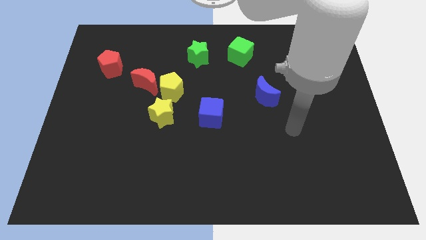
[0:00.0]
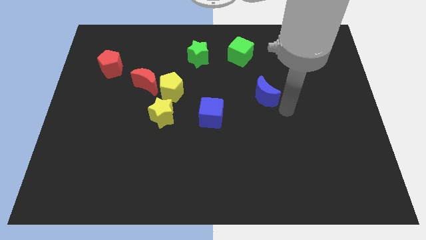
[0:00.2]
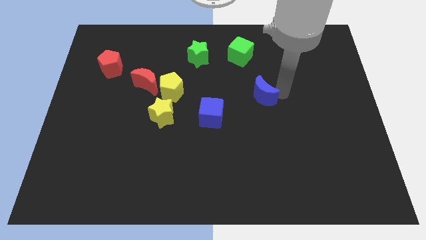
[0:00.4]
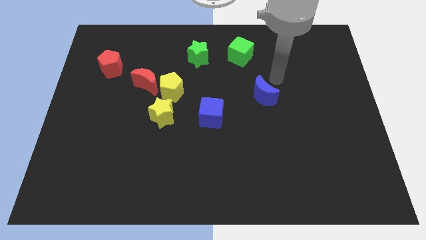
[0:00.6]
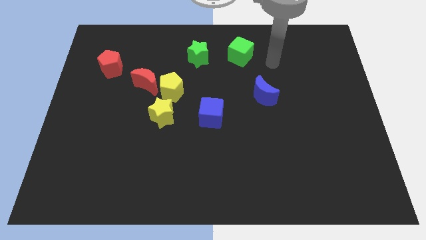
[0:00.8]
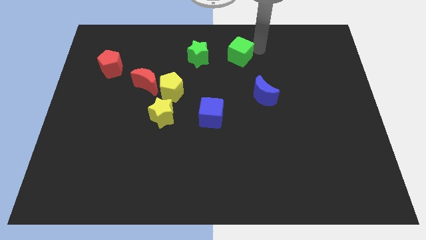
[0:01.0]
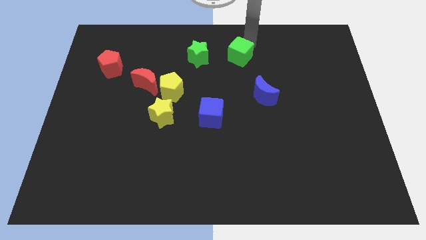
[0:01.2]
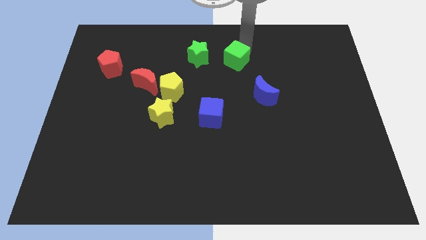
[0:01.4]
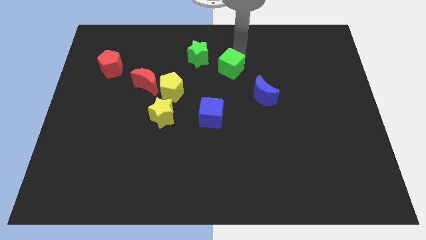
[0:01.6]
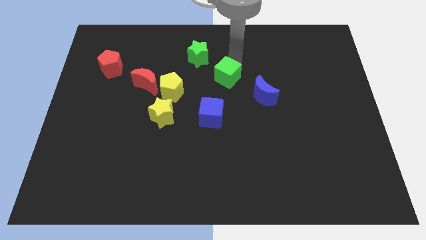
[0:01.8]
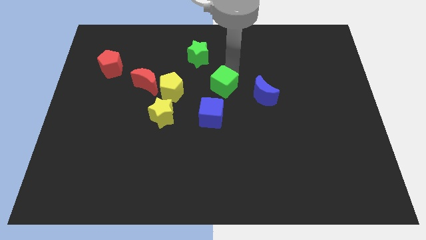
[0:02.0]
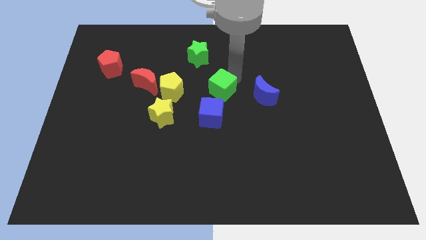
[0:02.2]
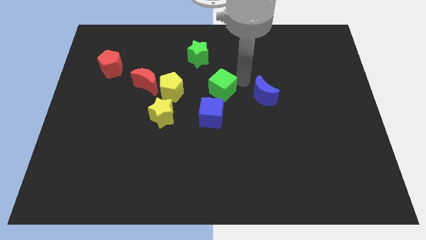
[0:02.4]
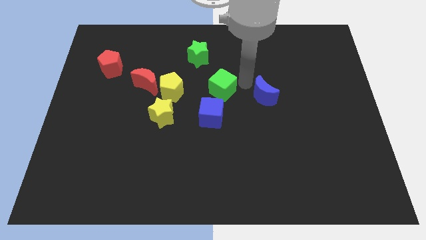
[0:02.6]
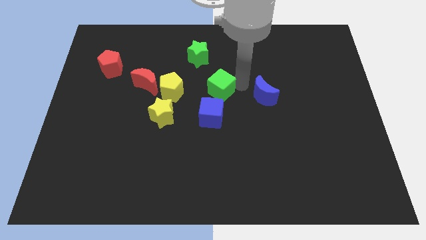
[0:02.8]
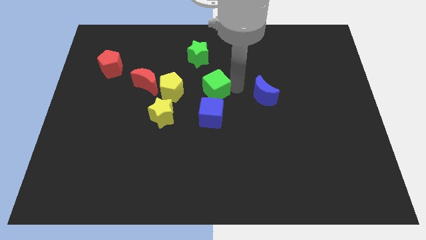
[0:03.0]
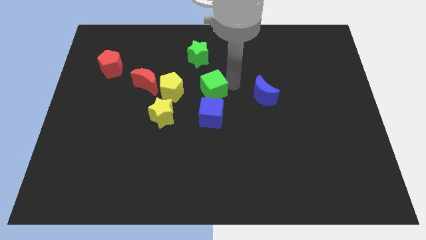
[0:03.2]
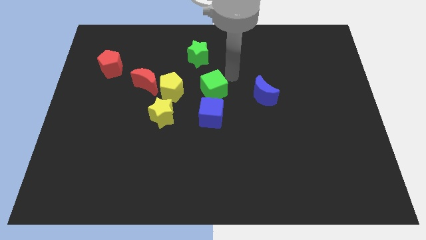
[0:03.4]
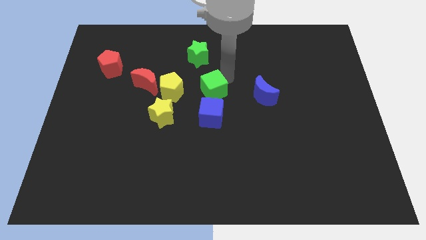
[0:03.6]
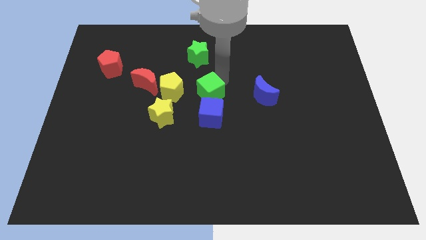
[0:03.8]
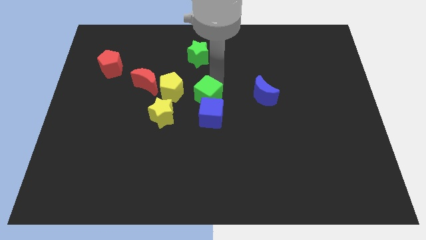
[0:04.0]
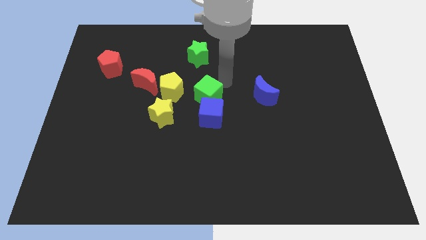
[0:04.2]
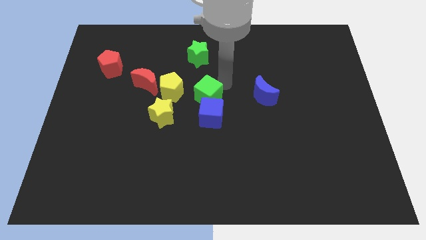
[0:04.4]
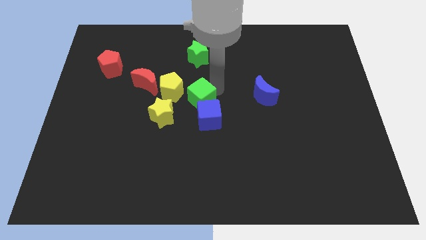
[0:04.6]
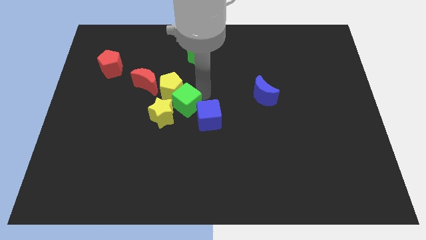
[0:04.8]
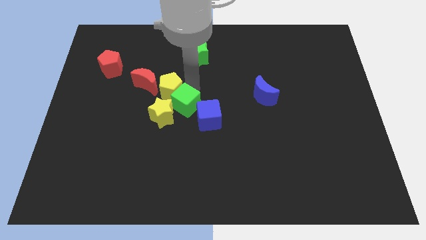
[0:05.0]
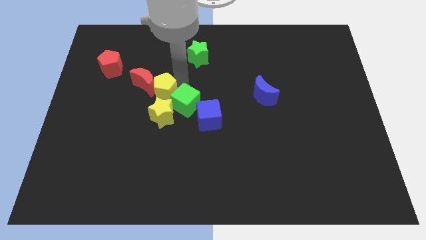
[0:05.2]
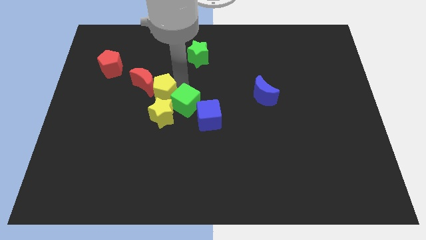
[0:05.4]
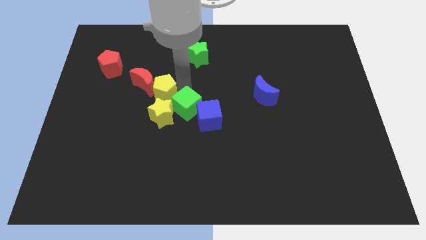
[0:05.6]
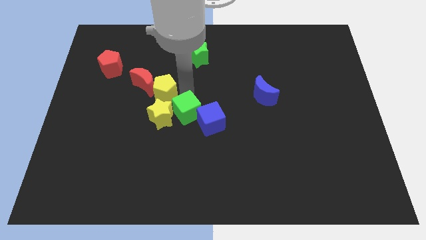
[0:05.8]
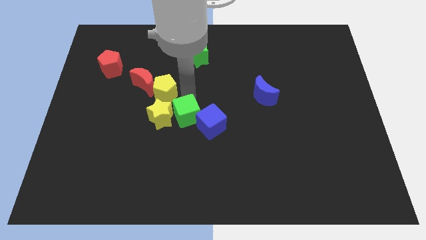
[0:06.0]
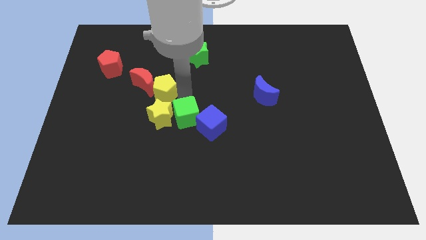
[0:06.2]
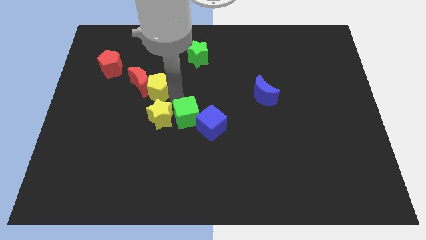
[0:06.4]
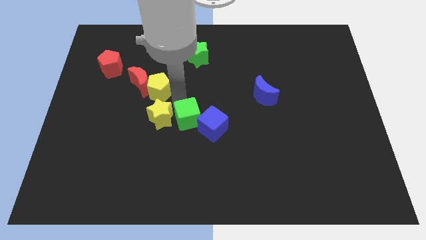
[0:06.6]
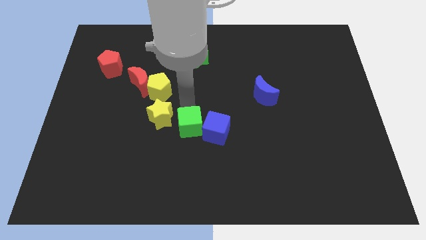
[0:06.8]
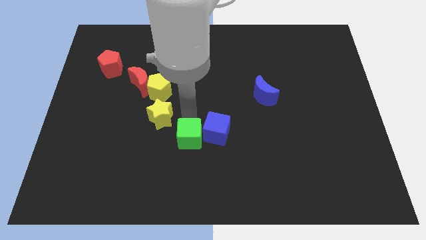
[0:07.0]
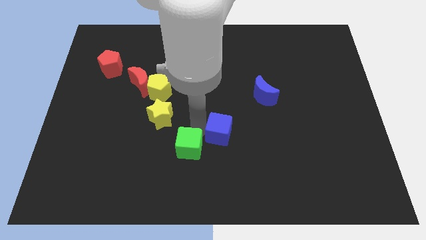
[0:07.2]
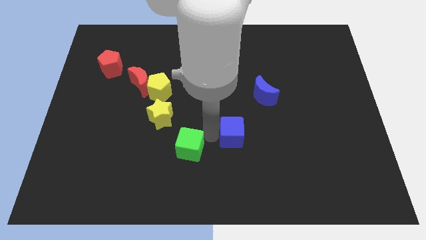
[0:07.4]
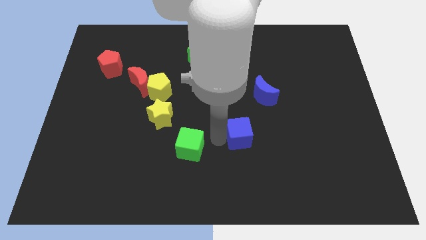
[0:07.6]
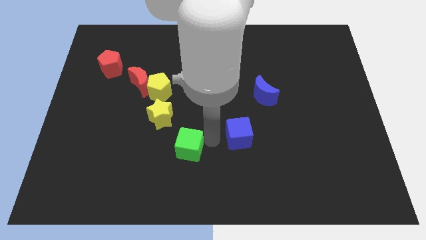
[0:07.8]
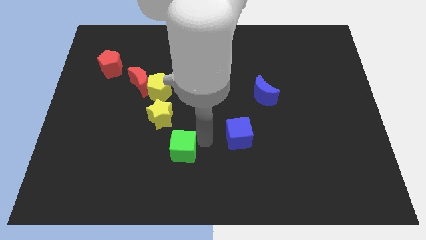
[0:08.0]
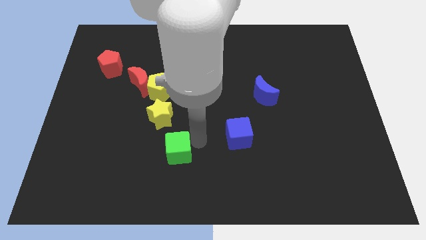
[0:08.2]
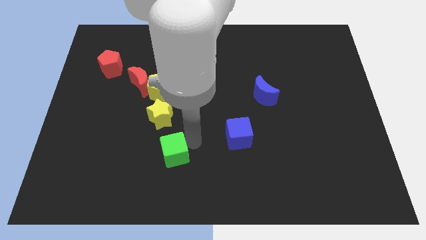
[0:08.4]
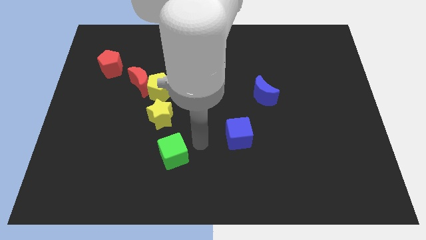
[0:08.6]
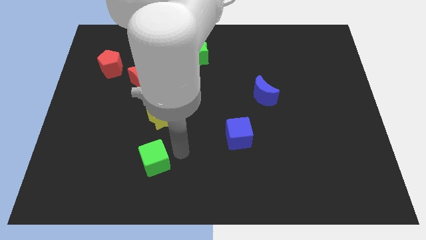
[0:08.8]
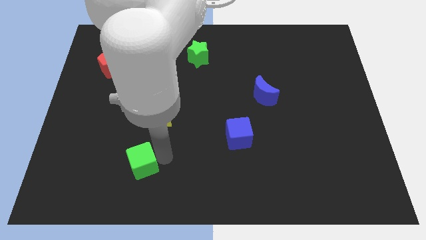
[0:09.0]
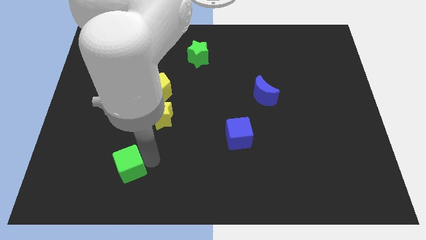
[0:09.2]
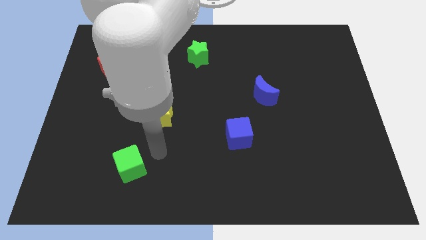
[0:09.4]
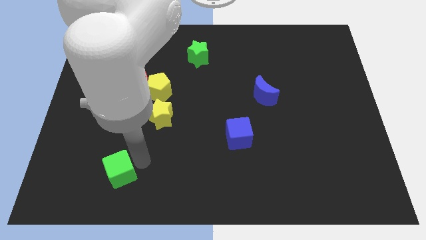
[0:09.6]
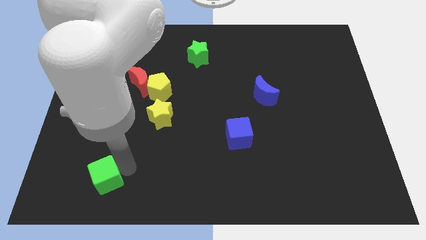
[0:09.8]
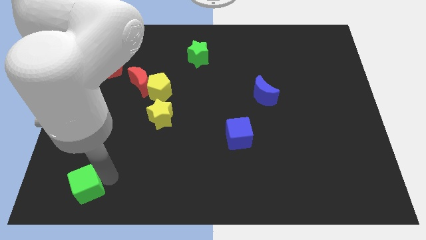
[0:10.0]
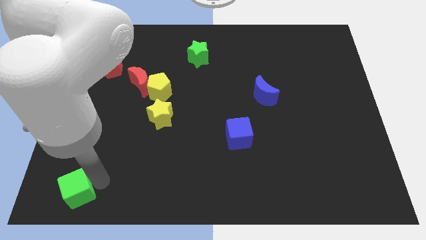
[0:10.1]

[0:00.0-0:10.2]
push the green cube to the lower left corner

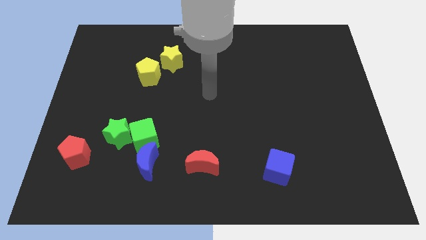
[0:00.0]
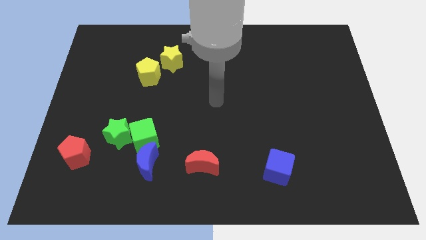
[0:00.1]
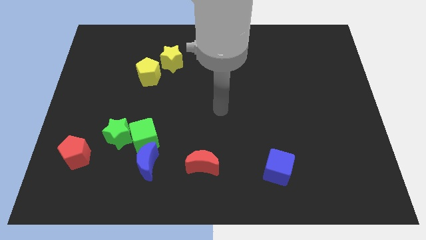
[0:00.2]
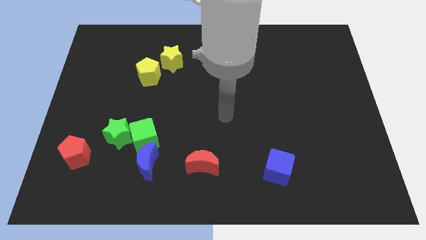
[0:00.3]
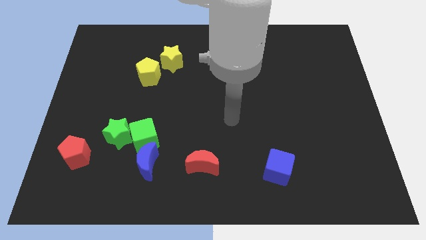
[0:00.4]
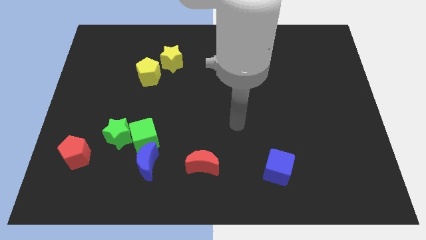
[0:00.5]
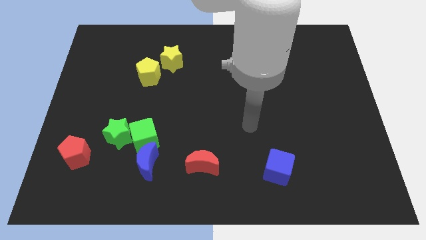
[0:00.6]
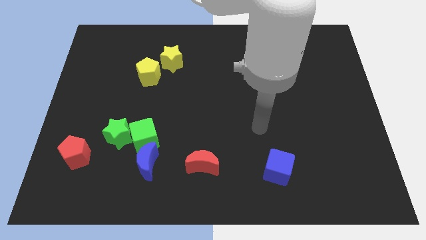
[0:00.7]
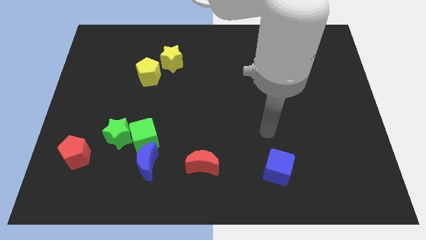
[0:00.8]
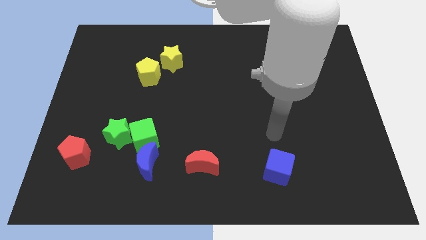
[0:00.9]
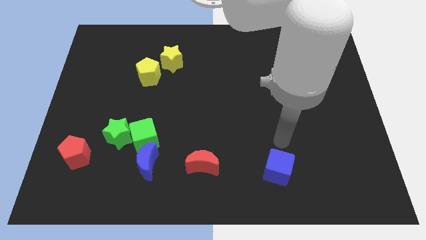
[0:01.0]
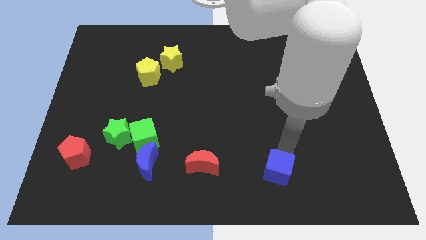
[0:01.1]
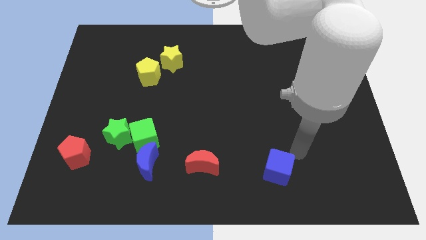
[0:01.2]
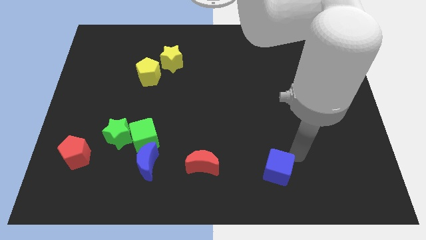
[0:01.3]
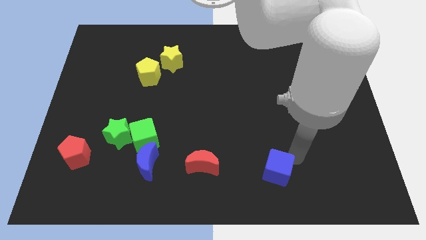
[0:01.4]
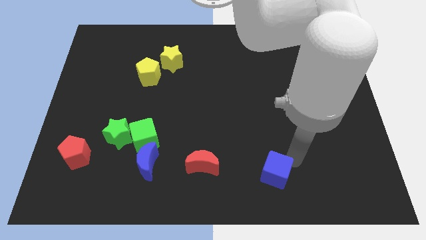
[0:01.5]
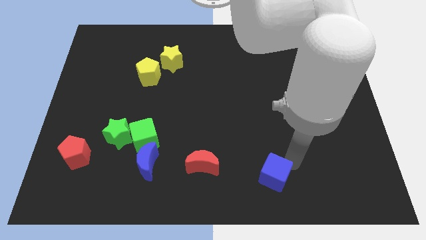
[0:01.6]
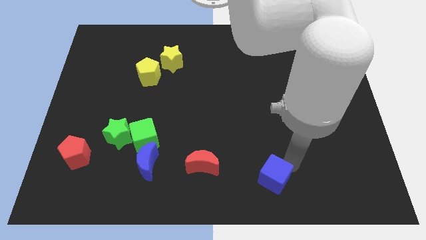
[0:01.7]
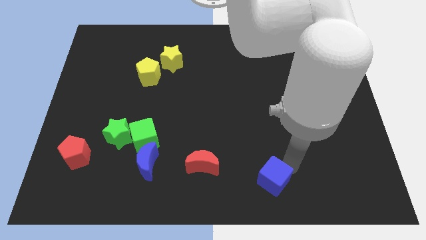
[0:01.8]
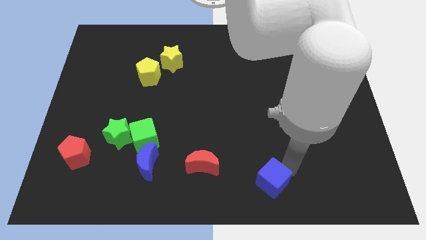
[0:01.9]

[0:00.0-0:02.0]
move the blue cube to the bottom side

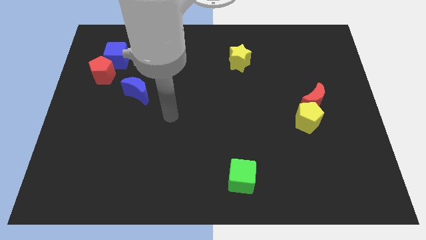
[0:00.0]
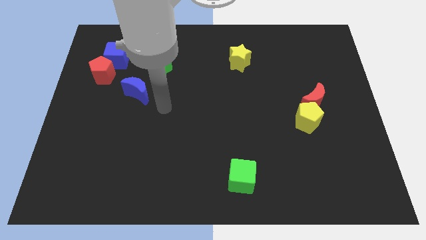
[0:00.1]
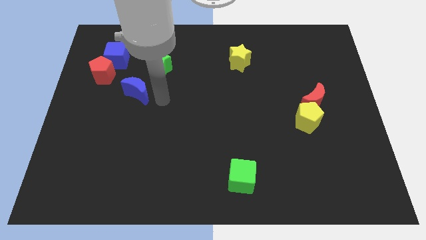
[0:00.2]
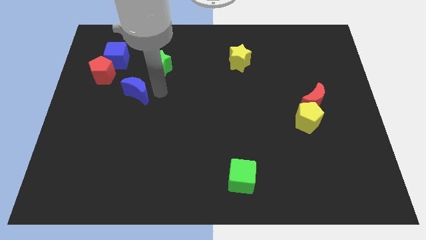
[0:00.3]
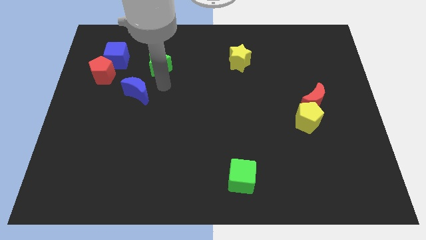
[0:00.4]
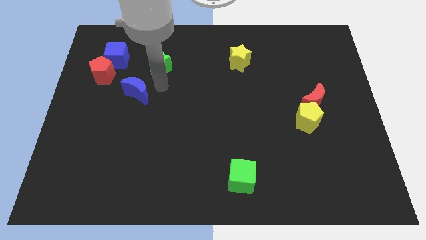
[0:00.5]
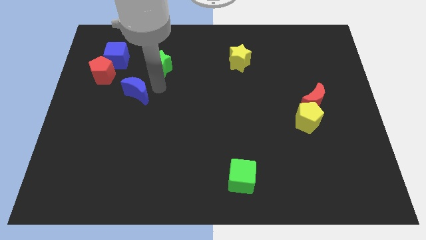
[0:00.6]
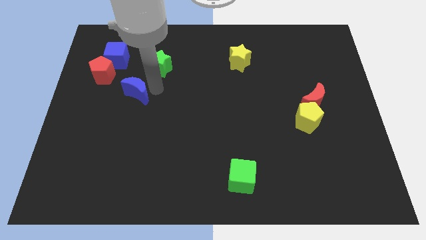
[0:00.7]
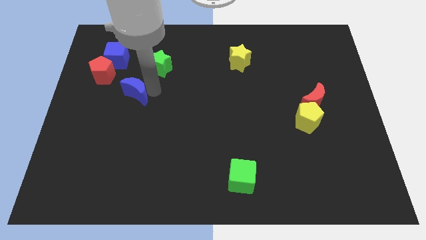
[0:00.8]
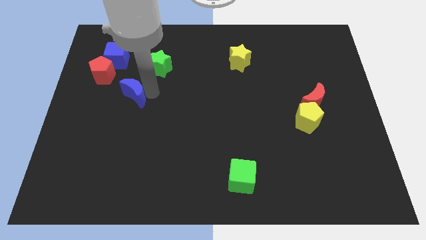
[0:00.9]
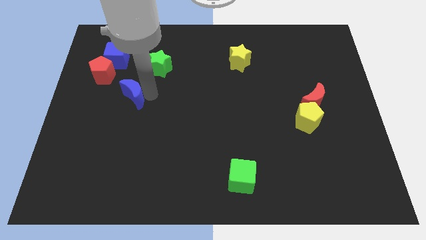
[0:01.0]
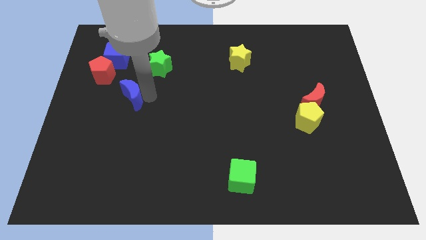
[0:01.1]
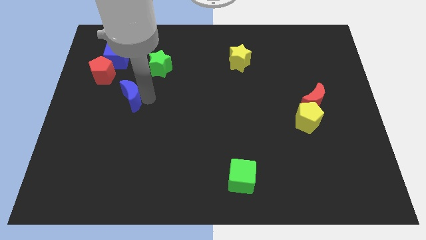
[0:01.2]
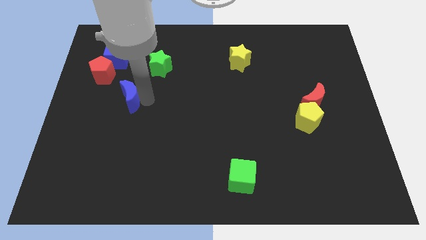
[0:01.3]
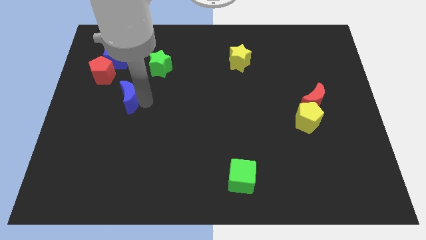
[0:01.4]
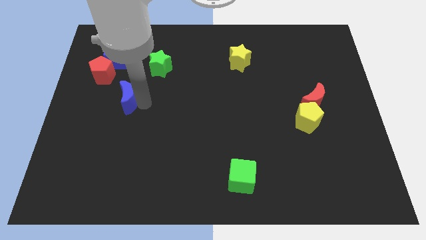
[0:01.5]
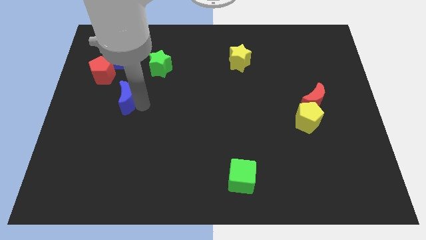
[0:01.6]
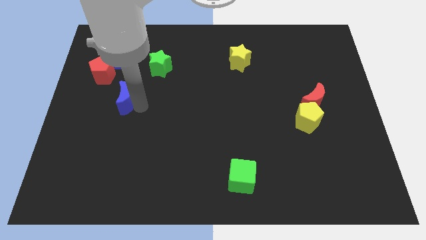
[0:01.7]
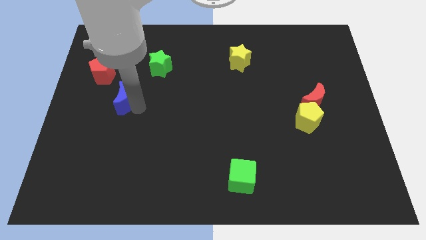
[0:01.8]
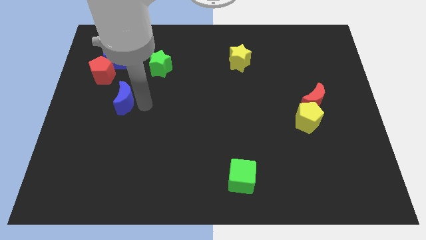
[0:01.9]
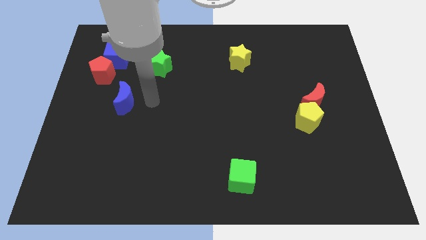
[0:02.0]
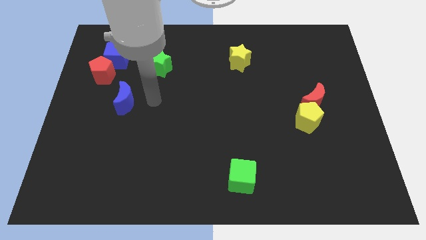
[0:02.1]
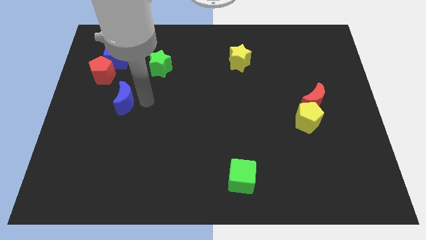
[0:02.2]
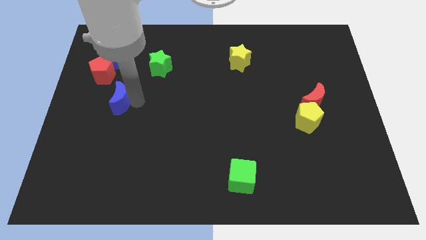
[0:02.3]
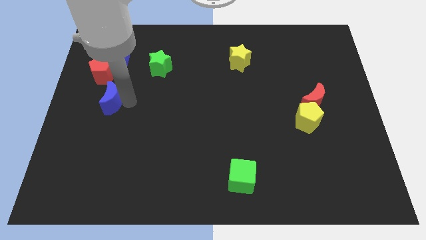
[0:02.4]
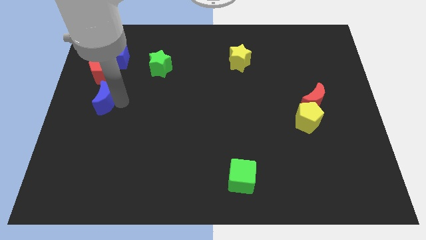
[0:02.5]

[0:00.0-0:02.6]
move the blue moon to the left side
